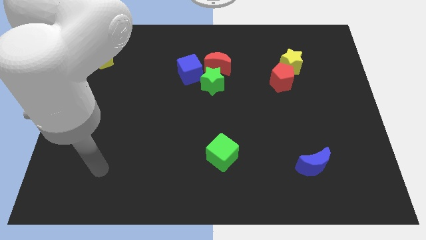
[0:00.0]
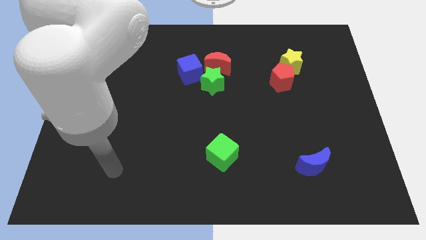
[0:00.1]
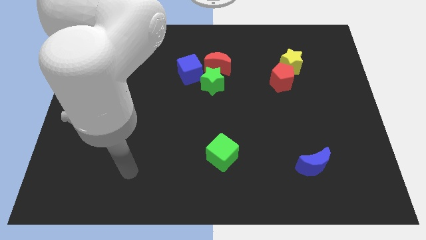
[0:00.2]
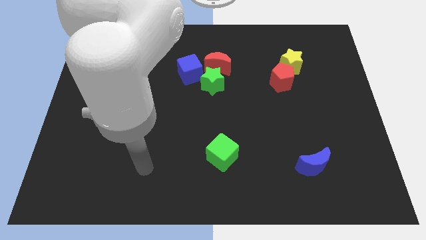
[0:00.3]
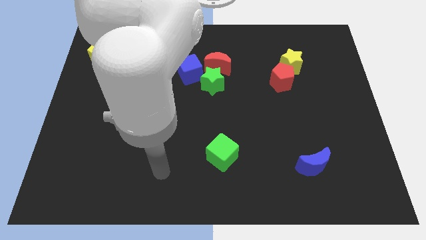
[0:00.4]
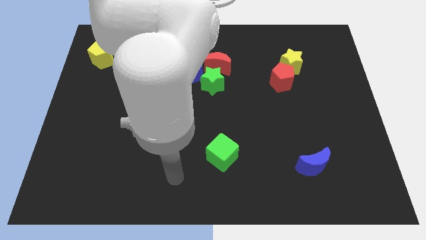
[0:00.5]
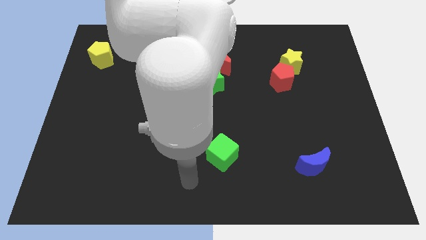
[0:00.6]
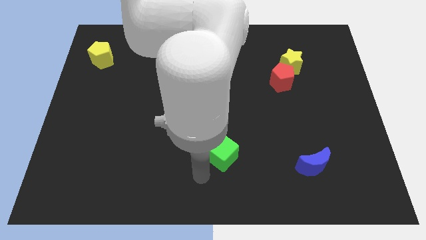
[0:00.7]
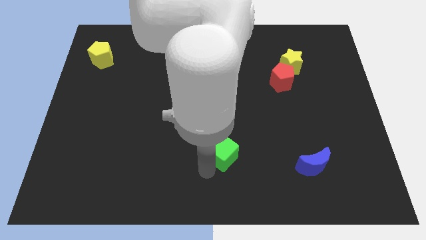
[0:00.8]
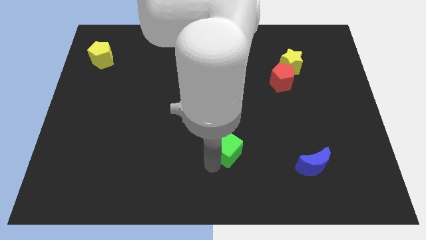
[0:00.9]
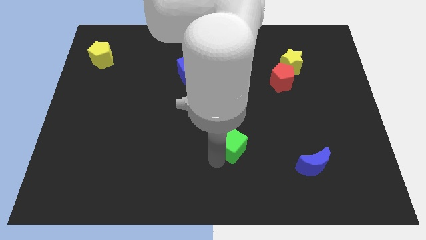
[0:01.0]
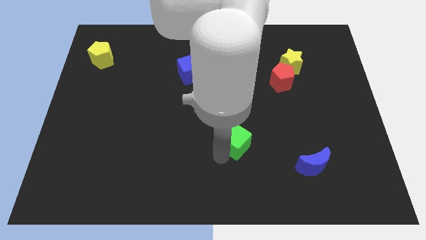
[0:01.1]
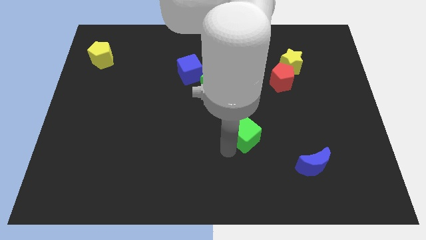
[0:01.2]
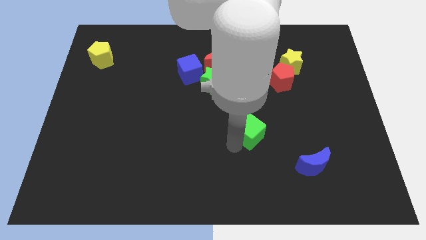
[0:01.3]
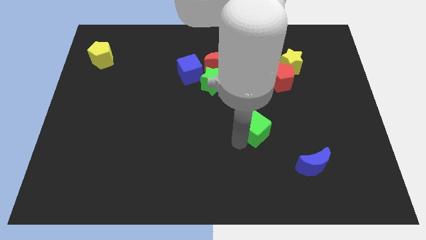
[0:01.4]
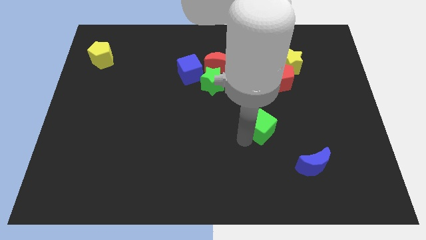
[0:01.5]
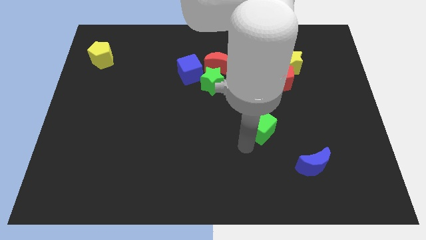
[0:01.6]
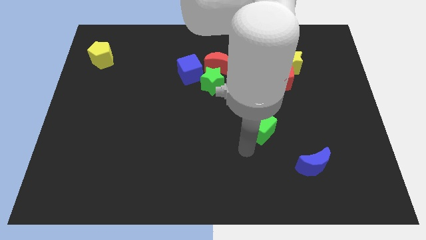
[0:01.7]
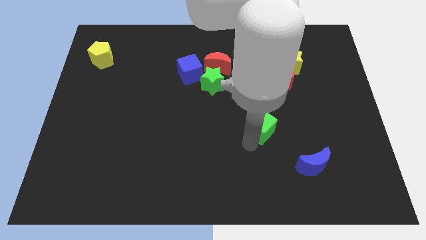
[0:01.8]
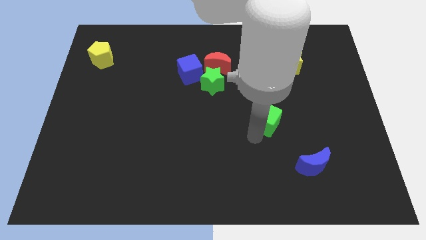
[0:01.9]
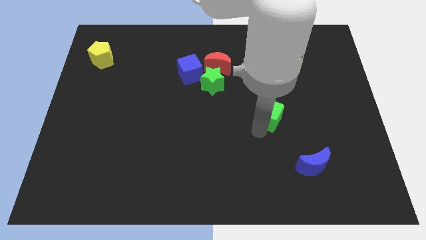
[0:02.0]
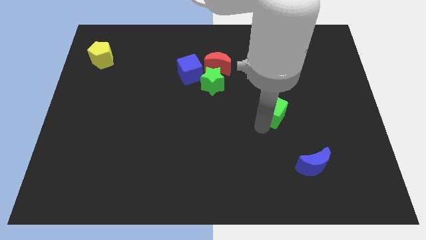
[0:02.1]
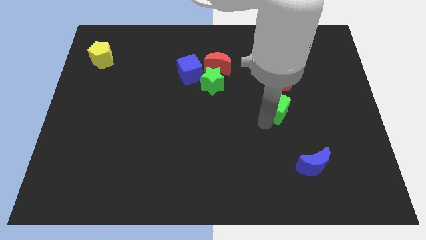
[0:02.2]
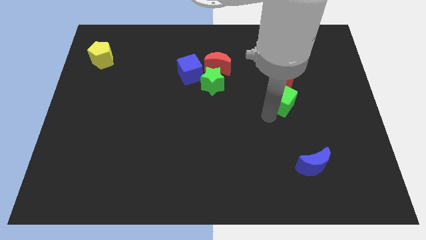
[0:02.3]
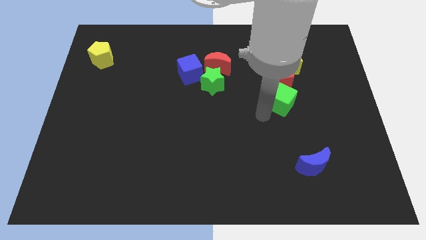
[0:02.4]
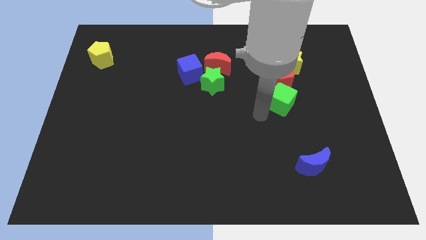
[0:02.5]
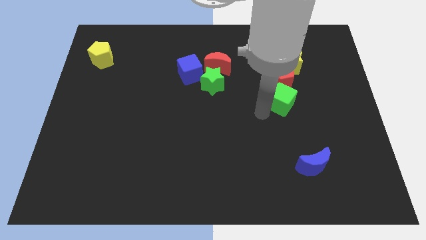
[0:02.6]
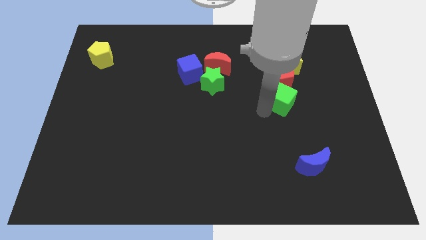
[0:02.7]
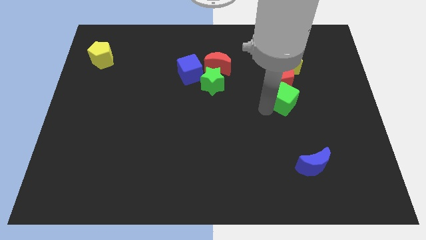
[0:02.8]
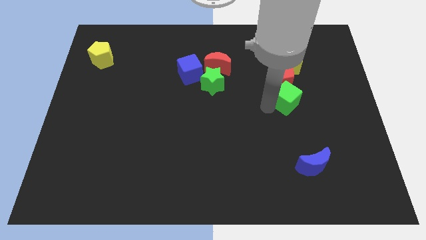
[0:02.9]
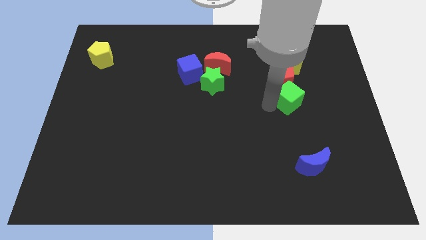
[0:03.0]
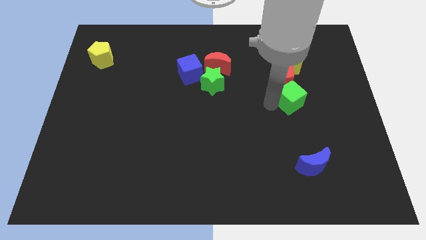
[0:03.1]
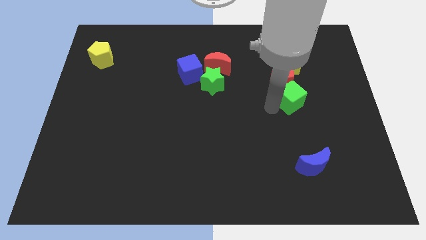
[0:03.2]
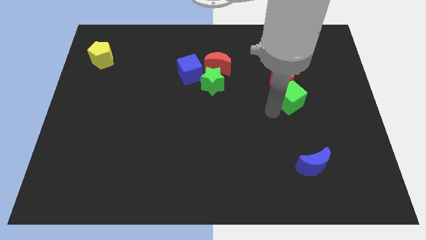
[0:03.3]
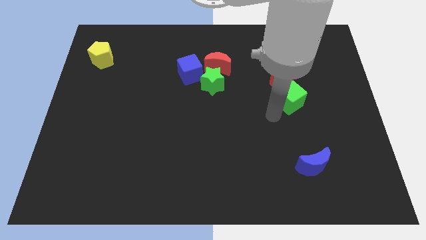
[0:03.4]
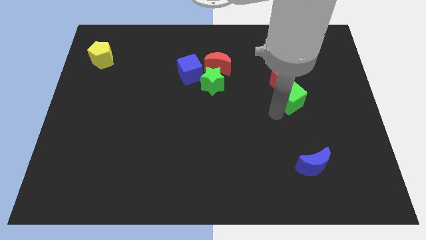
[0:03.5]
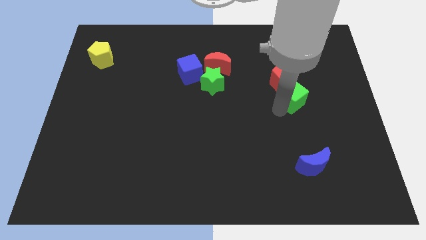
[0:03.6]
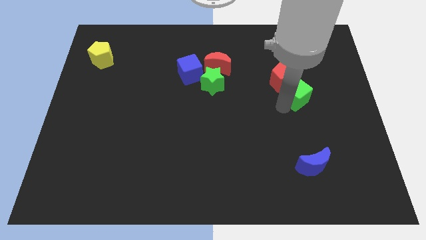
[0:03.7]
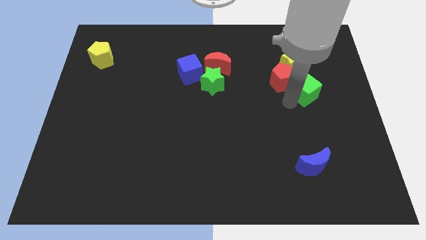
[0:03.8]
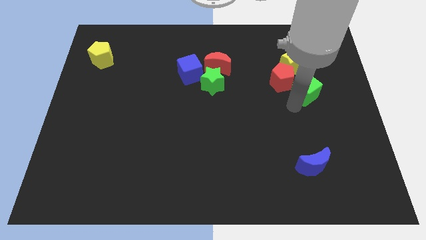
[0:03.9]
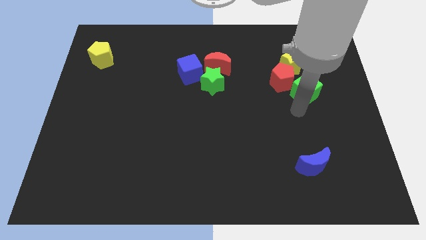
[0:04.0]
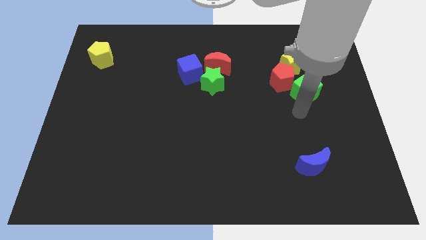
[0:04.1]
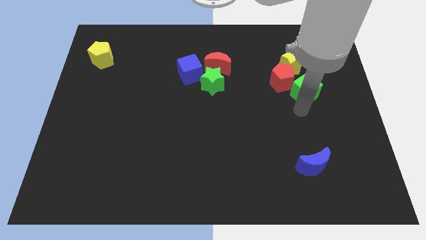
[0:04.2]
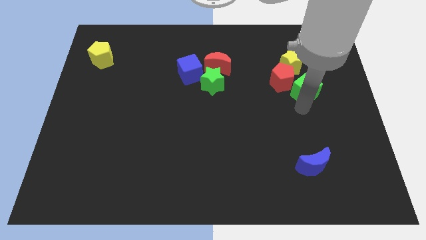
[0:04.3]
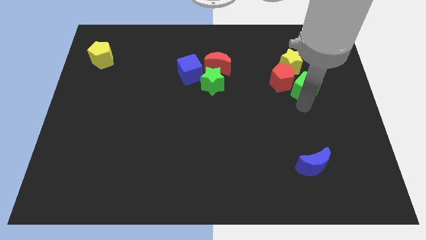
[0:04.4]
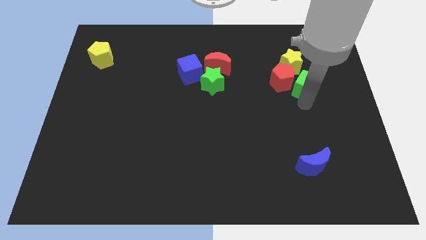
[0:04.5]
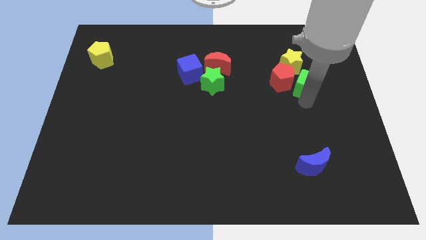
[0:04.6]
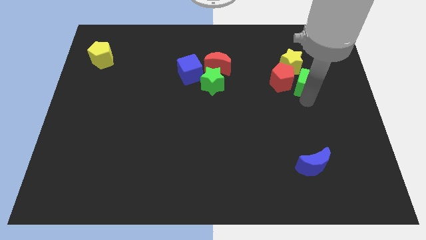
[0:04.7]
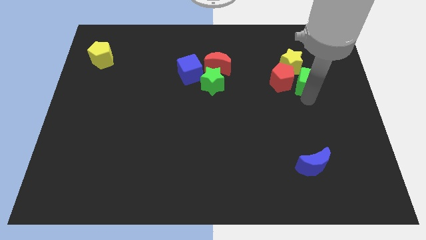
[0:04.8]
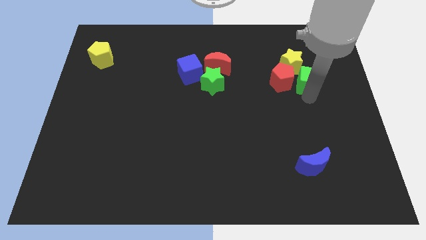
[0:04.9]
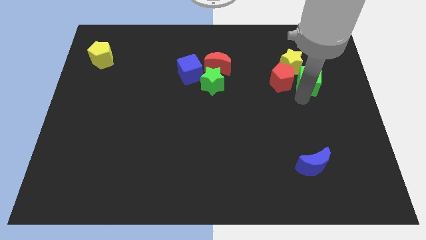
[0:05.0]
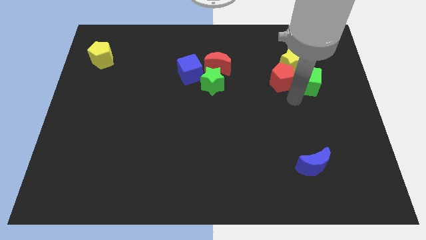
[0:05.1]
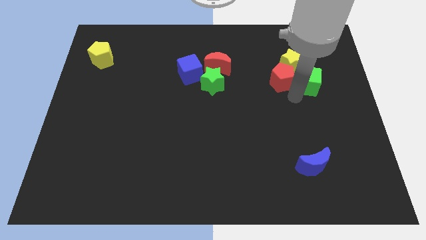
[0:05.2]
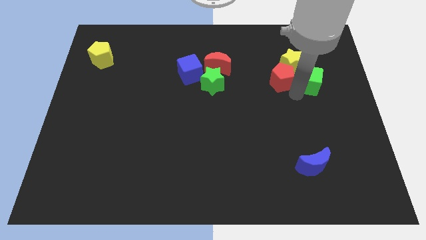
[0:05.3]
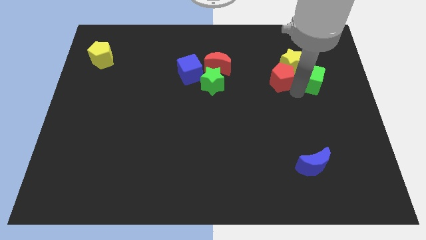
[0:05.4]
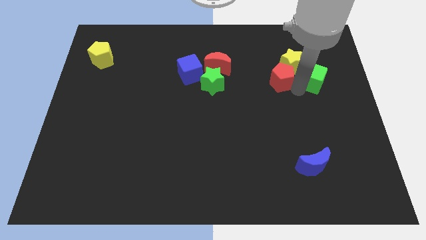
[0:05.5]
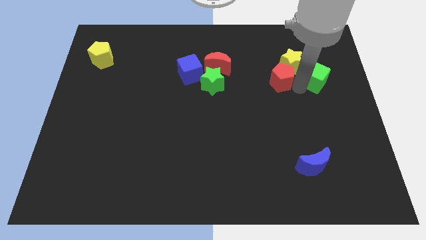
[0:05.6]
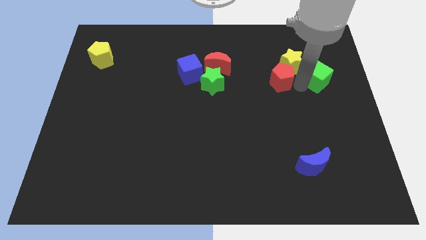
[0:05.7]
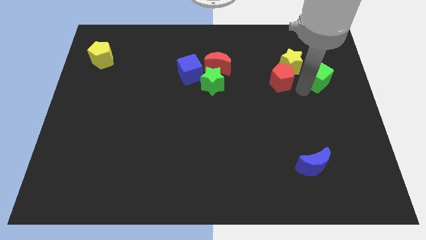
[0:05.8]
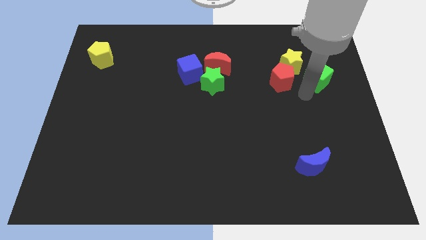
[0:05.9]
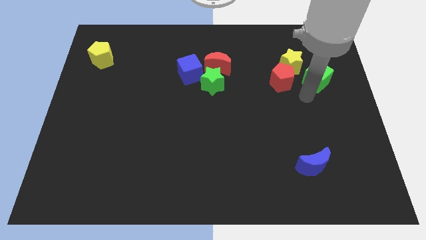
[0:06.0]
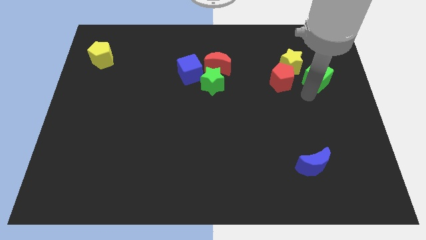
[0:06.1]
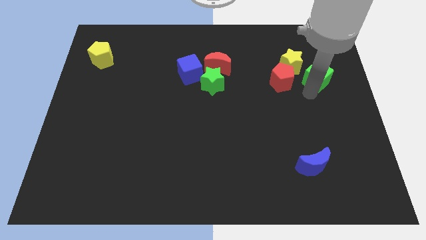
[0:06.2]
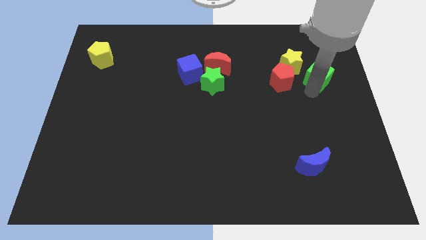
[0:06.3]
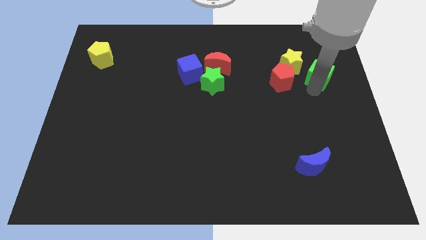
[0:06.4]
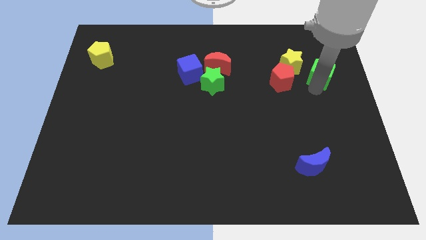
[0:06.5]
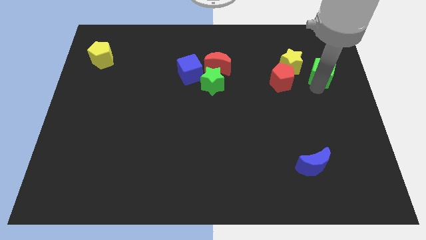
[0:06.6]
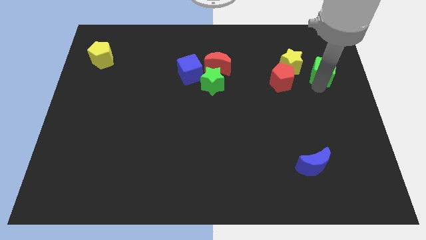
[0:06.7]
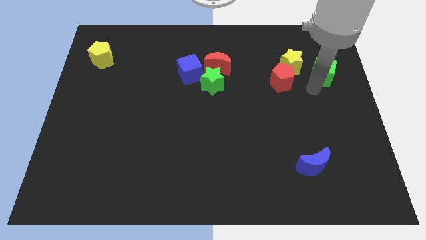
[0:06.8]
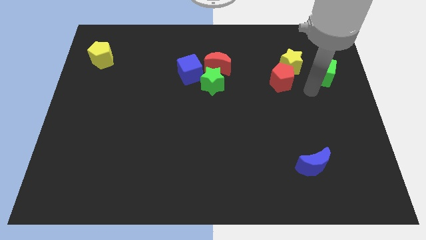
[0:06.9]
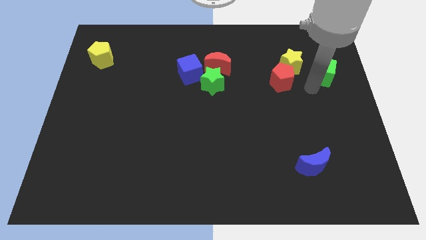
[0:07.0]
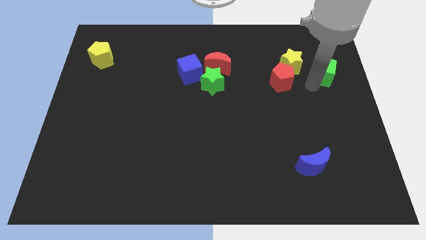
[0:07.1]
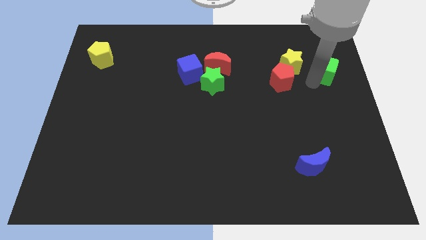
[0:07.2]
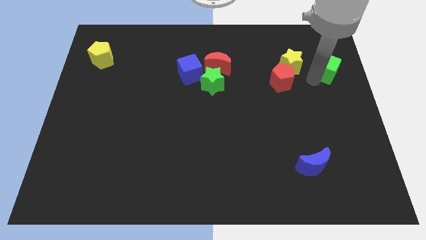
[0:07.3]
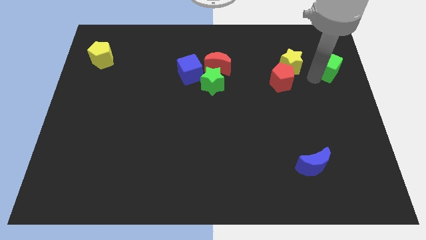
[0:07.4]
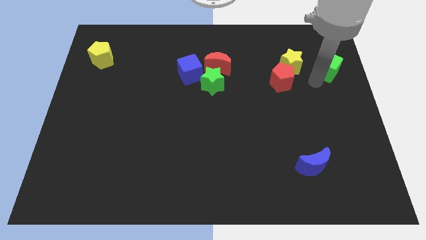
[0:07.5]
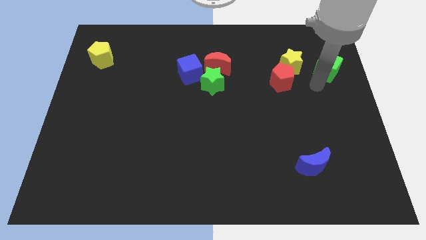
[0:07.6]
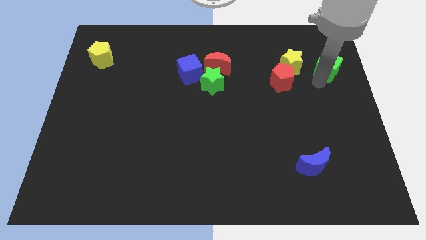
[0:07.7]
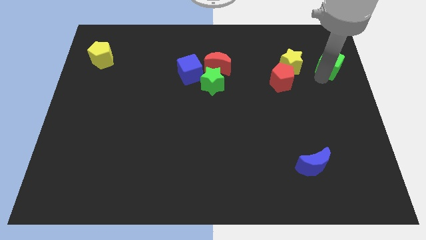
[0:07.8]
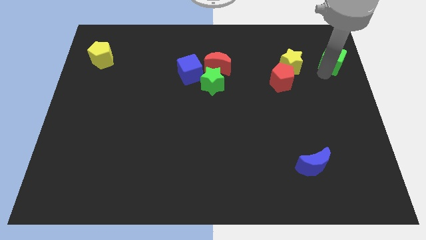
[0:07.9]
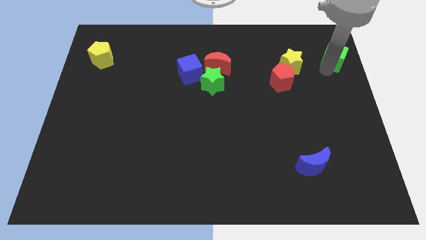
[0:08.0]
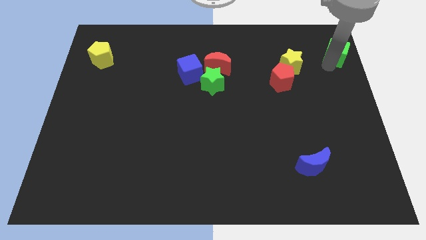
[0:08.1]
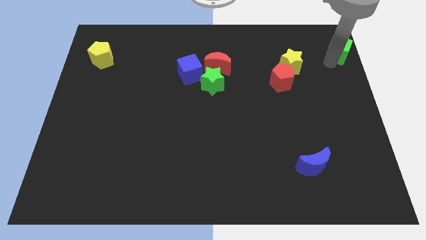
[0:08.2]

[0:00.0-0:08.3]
put the green cube to the upper right corner
